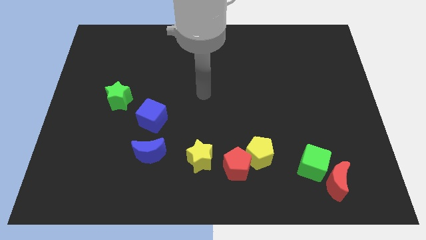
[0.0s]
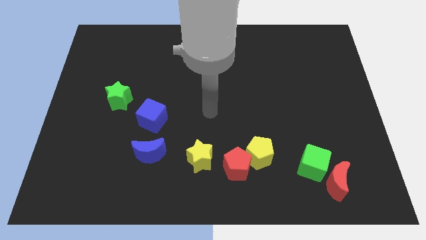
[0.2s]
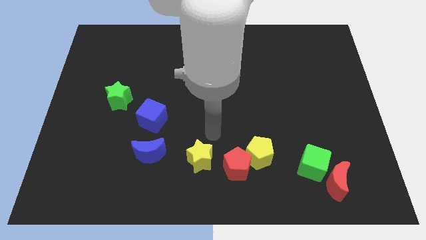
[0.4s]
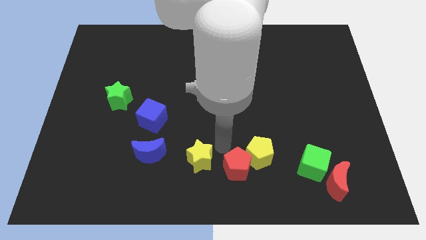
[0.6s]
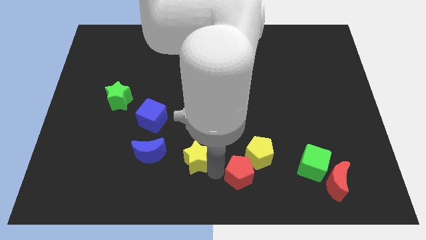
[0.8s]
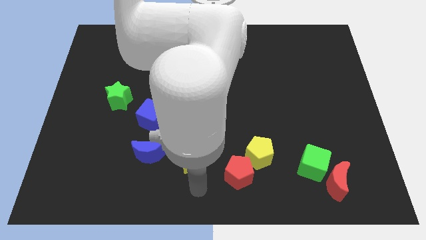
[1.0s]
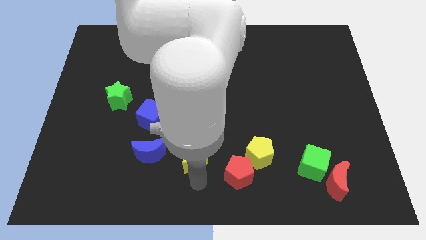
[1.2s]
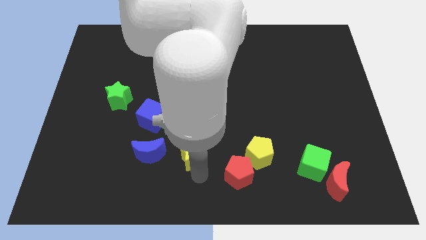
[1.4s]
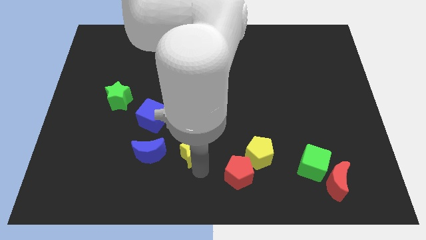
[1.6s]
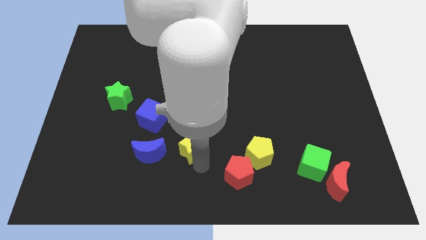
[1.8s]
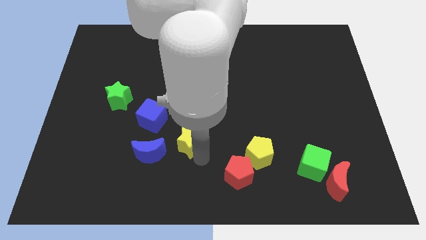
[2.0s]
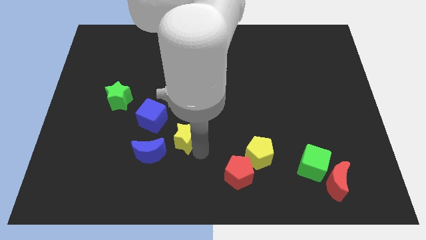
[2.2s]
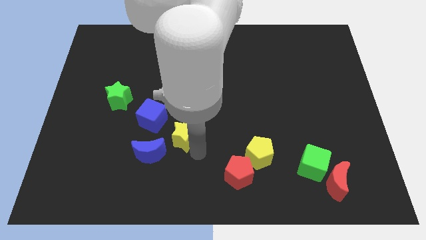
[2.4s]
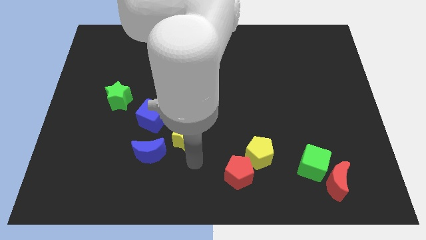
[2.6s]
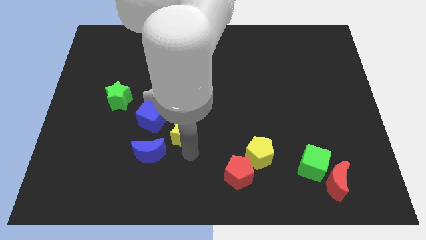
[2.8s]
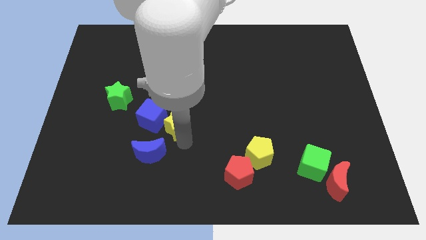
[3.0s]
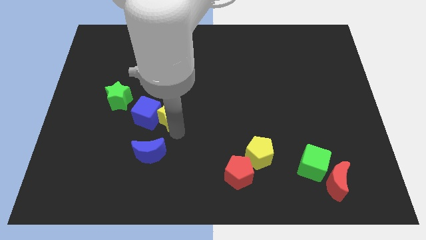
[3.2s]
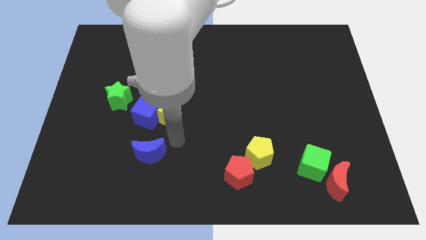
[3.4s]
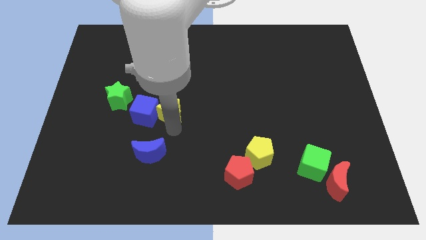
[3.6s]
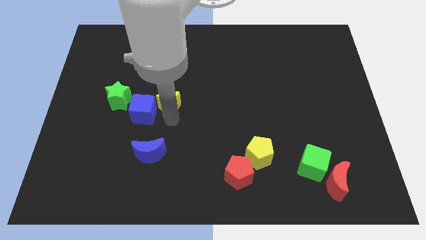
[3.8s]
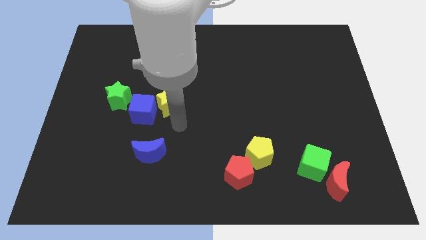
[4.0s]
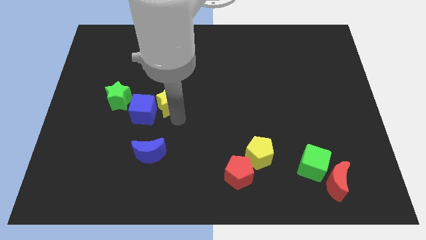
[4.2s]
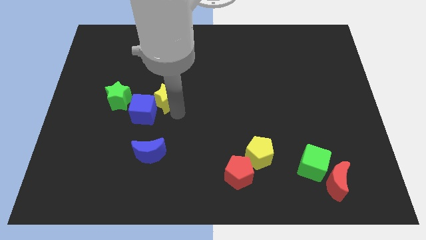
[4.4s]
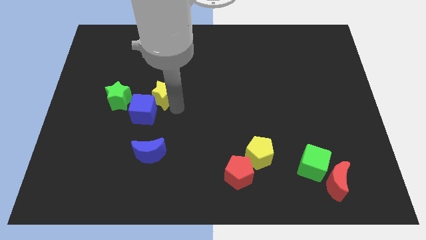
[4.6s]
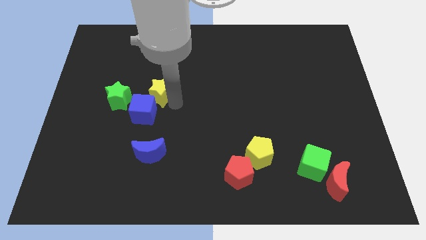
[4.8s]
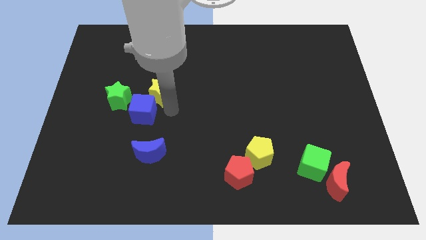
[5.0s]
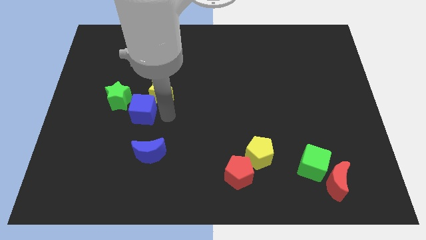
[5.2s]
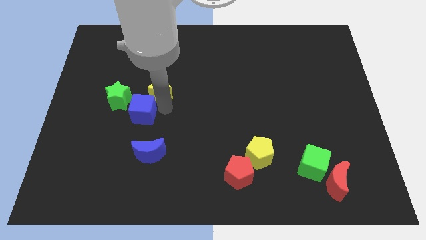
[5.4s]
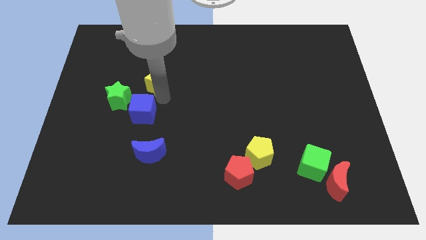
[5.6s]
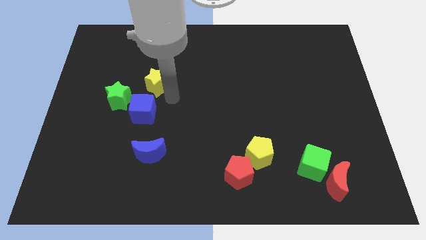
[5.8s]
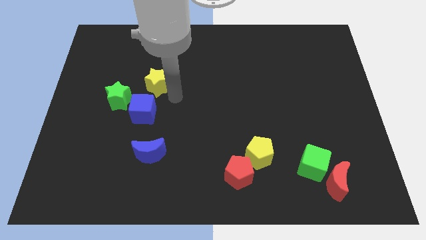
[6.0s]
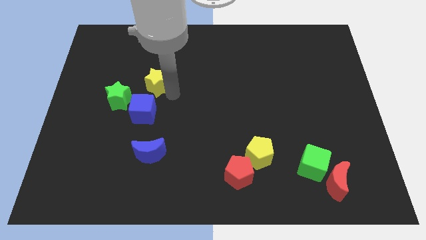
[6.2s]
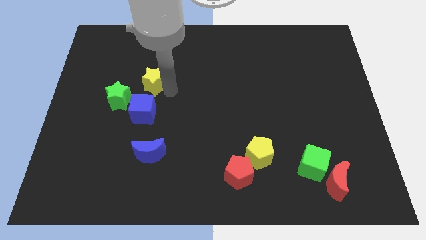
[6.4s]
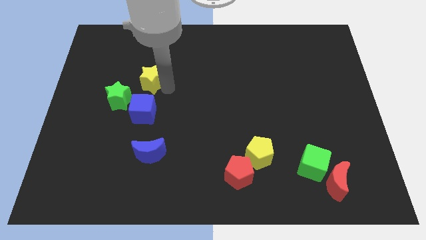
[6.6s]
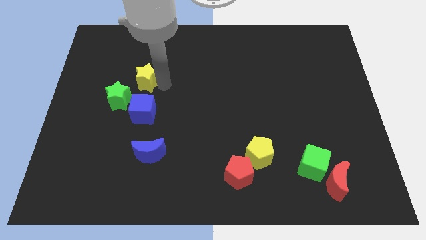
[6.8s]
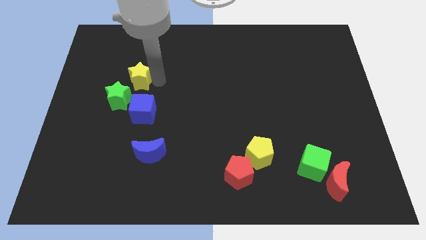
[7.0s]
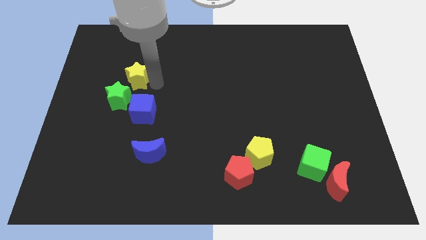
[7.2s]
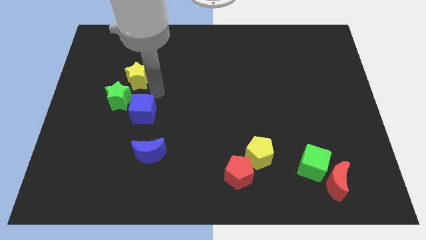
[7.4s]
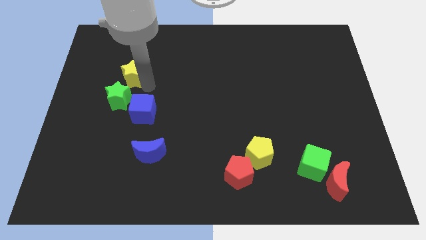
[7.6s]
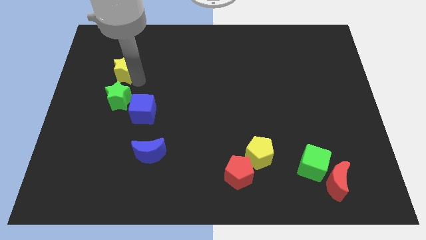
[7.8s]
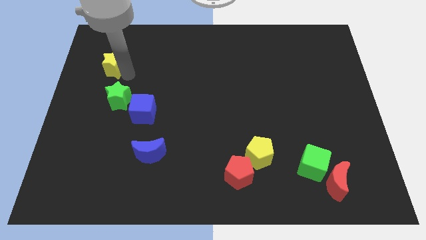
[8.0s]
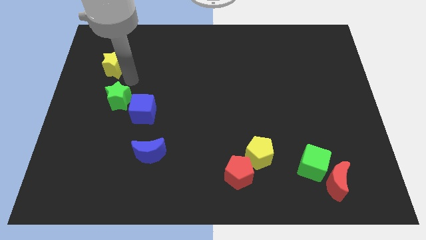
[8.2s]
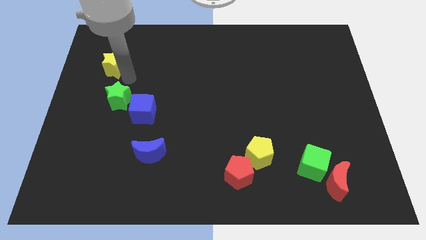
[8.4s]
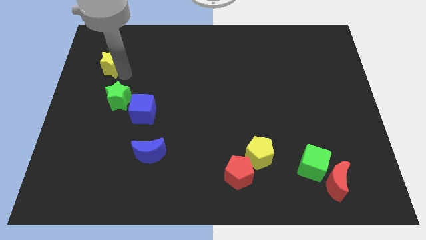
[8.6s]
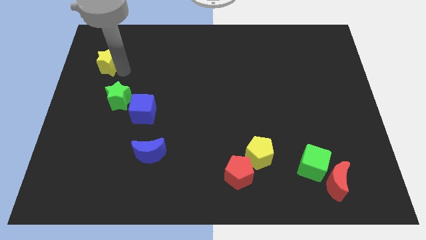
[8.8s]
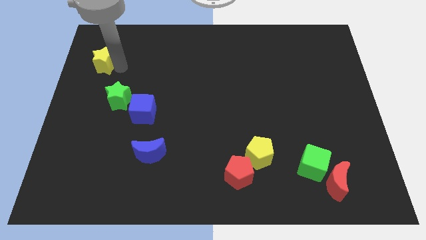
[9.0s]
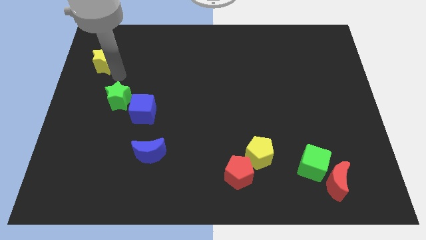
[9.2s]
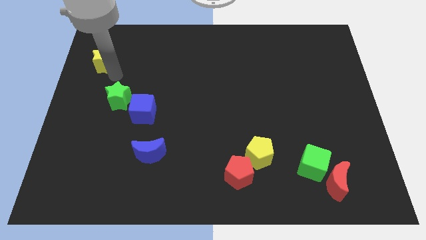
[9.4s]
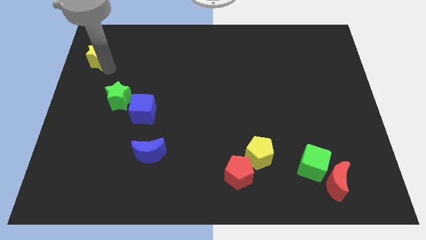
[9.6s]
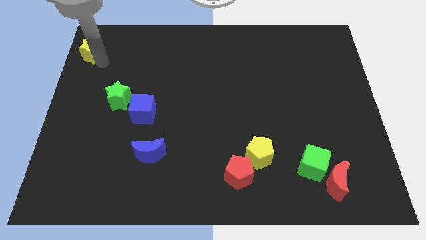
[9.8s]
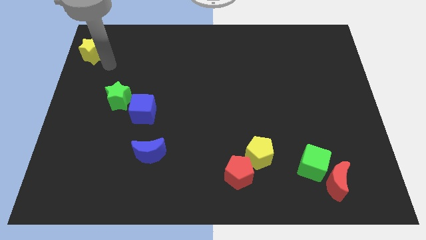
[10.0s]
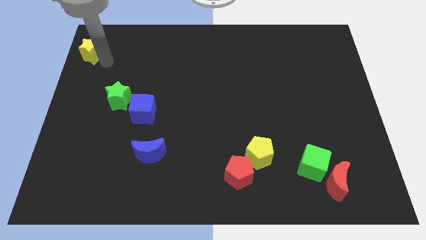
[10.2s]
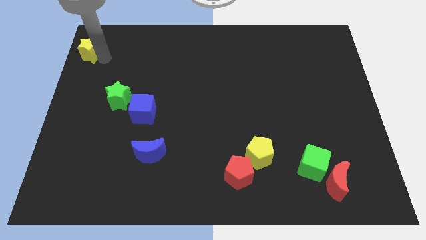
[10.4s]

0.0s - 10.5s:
move the yellow star to the top left of the board

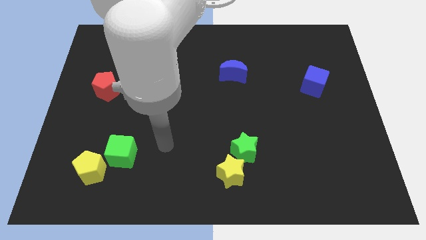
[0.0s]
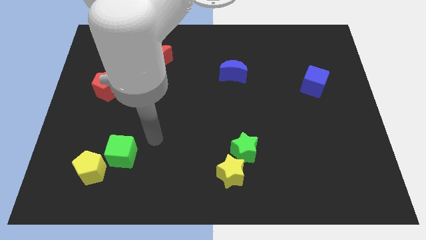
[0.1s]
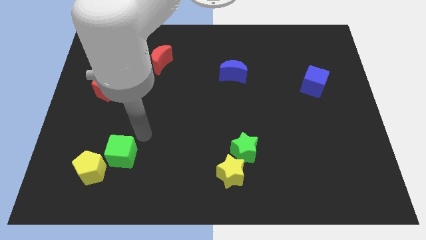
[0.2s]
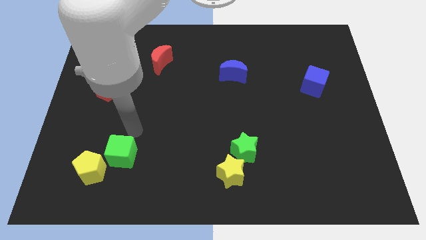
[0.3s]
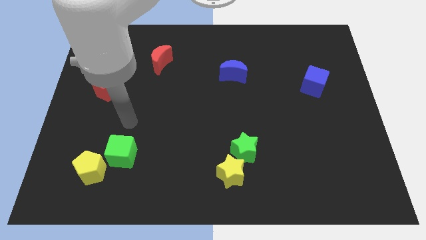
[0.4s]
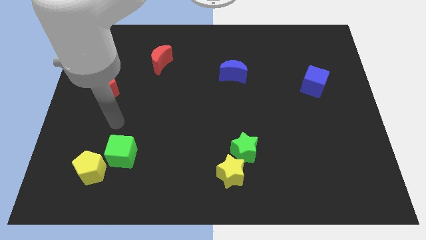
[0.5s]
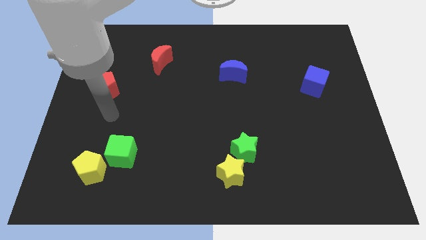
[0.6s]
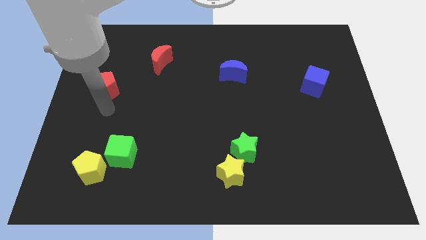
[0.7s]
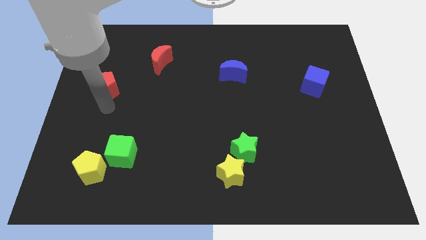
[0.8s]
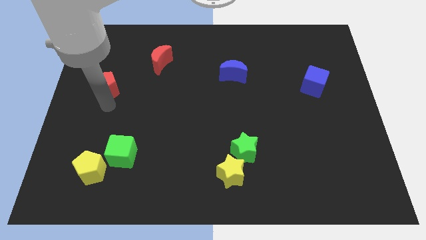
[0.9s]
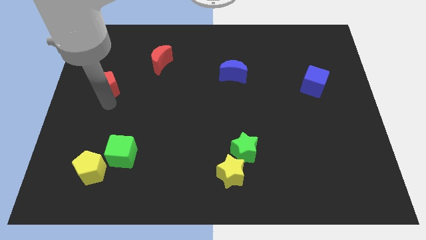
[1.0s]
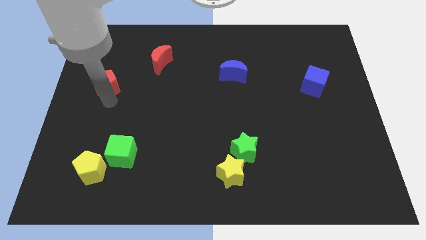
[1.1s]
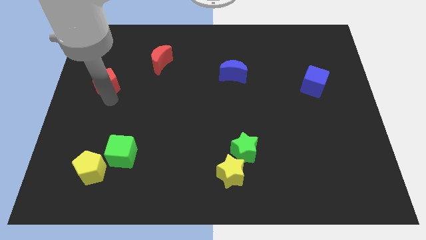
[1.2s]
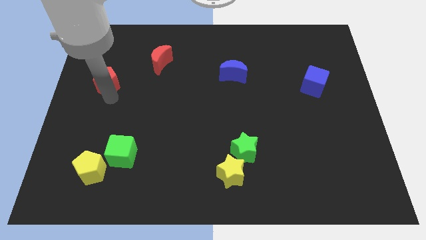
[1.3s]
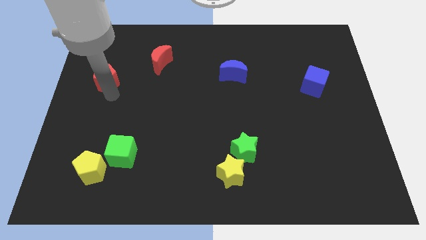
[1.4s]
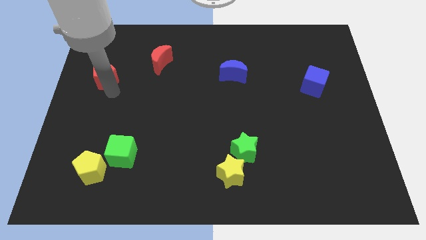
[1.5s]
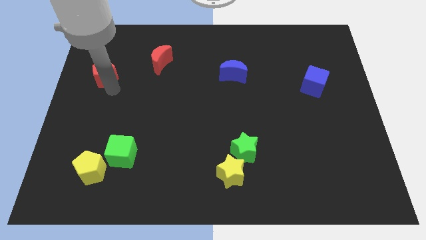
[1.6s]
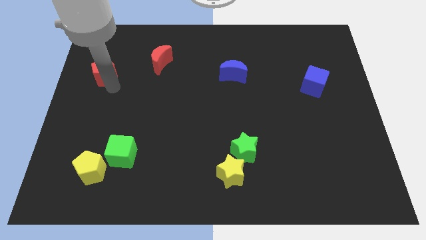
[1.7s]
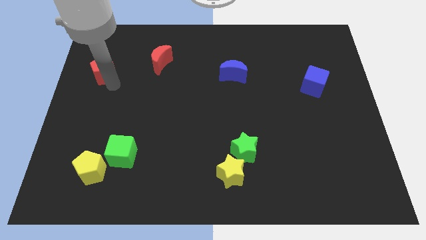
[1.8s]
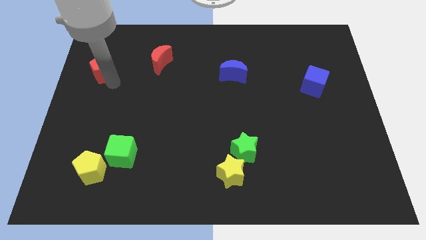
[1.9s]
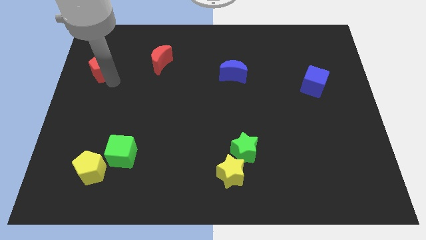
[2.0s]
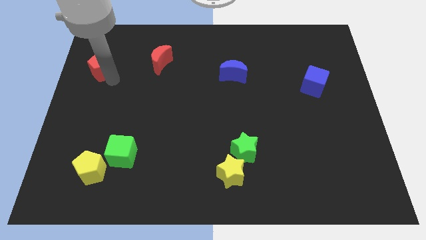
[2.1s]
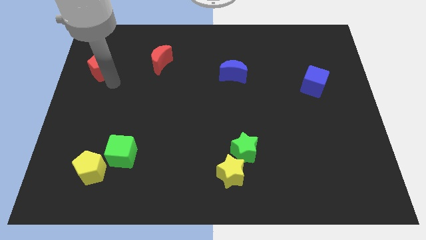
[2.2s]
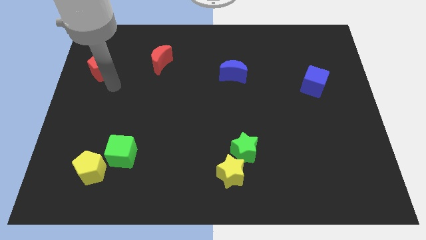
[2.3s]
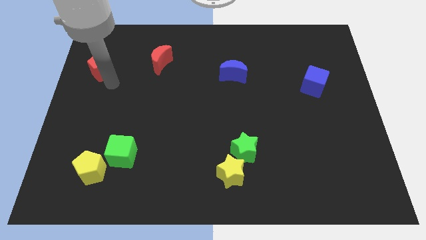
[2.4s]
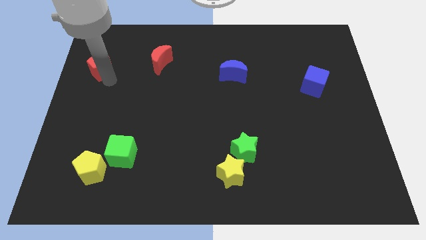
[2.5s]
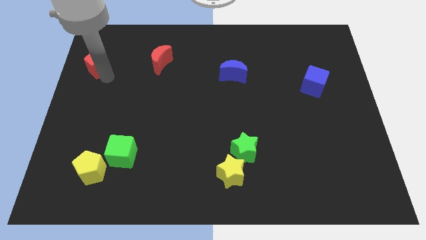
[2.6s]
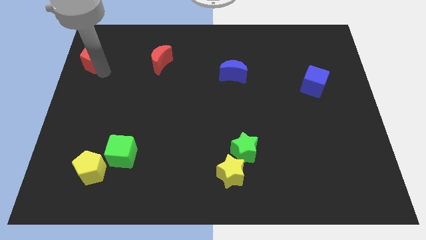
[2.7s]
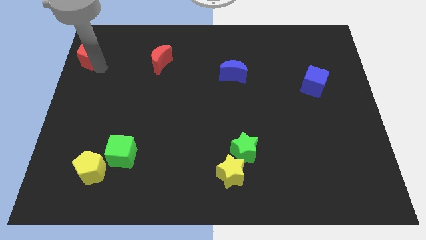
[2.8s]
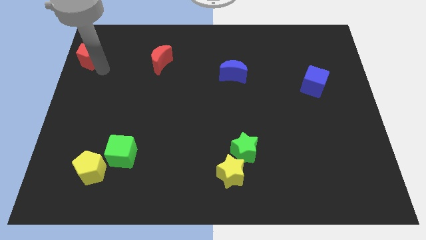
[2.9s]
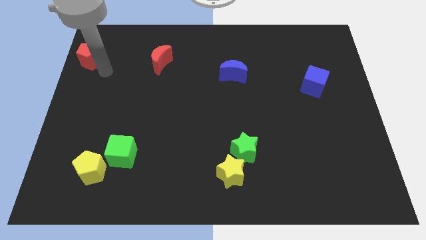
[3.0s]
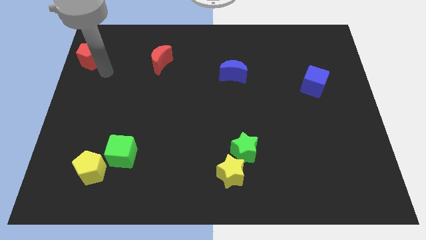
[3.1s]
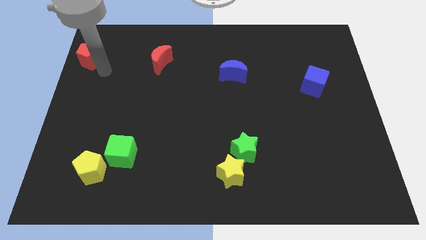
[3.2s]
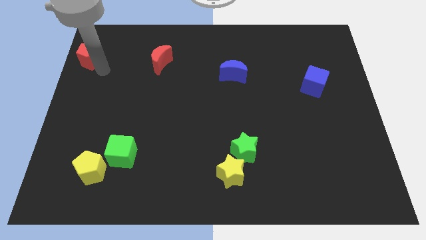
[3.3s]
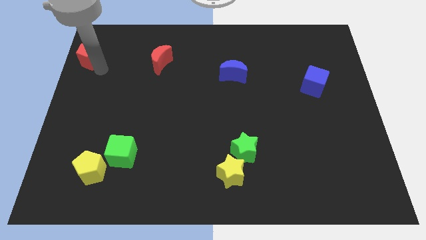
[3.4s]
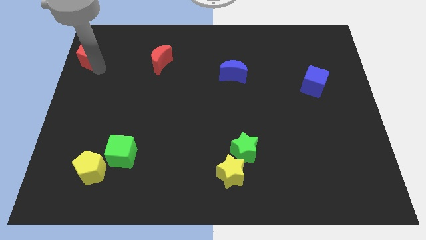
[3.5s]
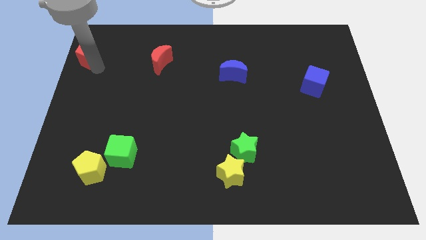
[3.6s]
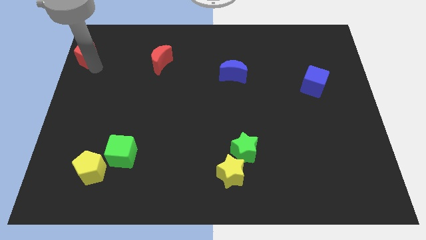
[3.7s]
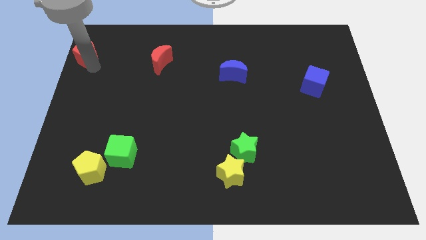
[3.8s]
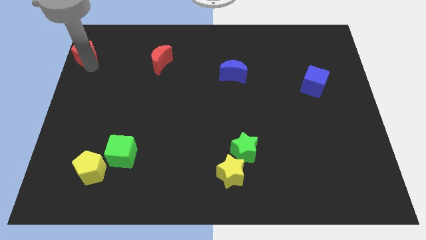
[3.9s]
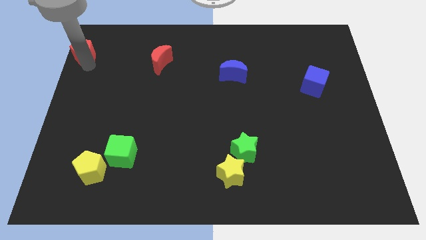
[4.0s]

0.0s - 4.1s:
slide the red pentagon to the top left corner
